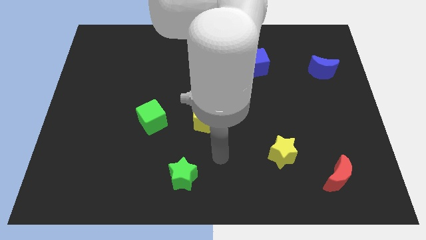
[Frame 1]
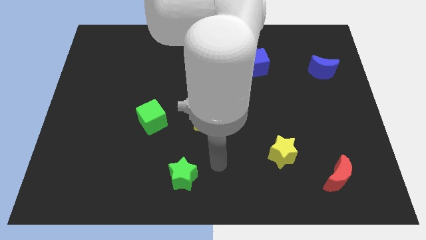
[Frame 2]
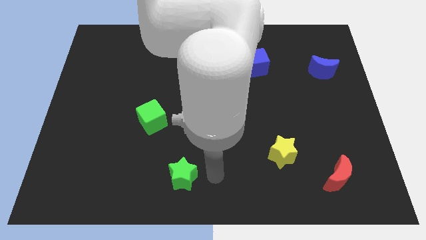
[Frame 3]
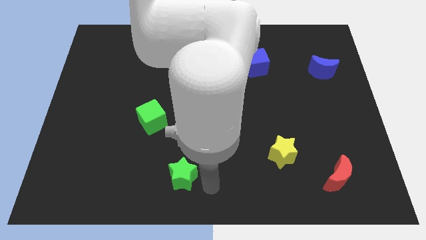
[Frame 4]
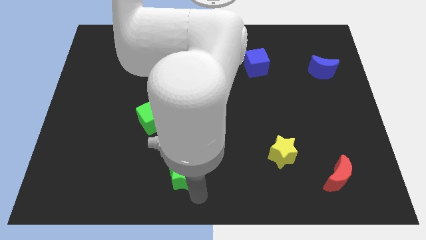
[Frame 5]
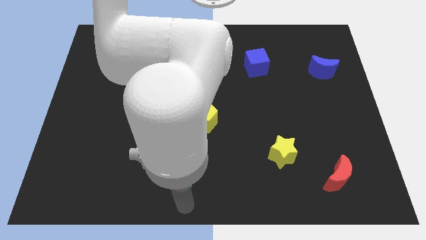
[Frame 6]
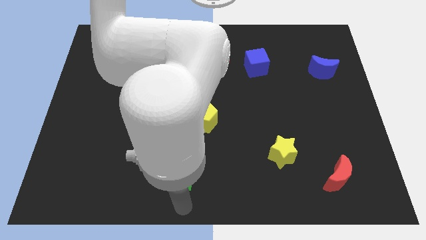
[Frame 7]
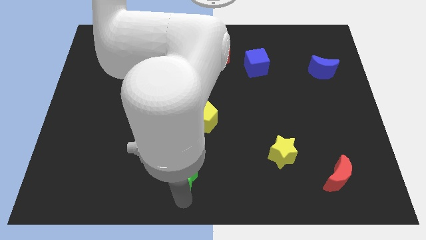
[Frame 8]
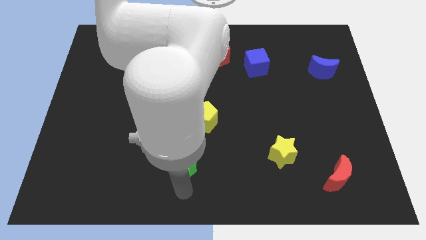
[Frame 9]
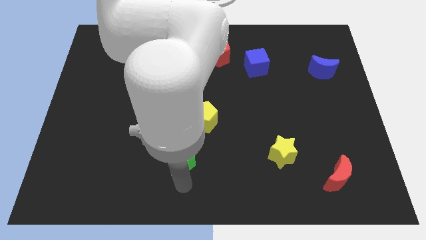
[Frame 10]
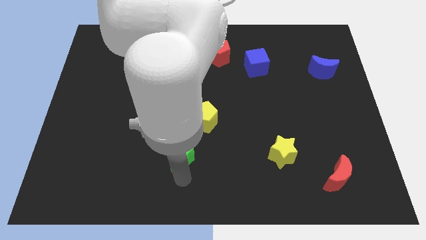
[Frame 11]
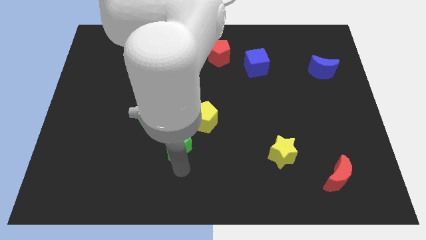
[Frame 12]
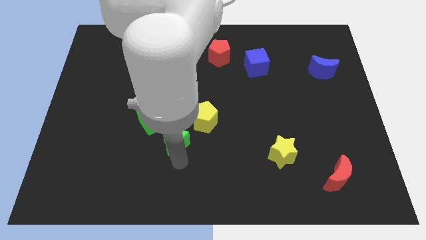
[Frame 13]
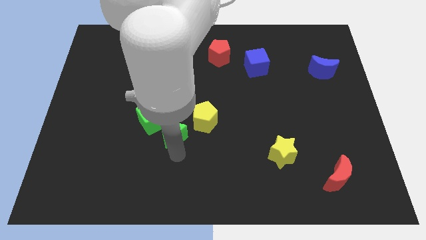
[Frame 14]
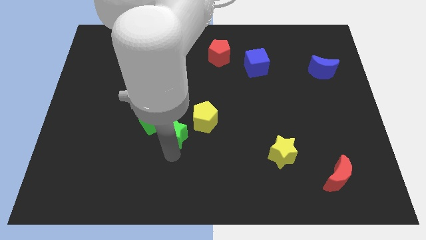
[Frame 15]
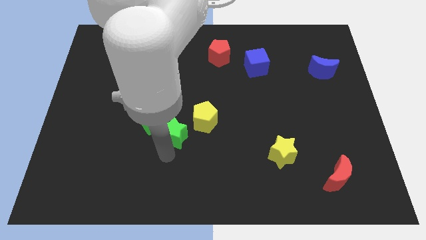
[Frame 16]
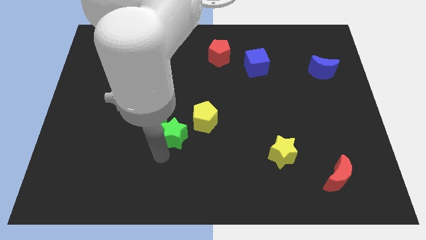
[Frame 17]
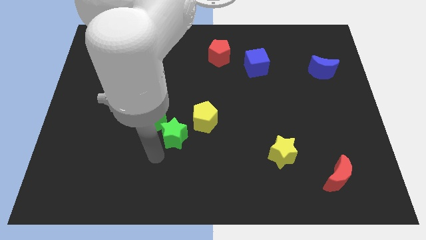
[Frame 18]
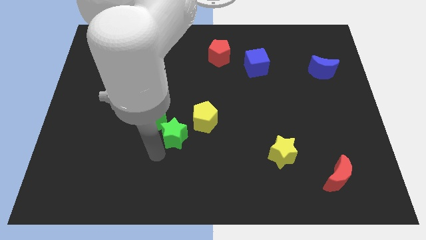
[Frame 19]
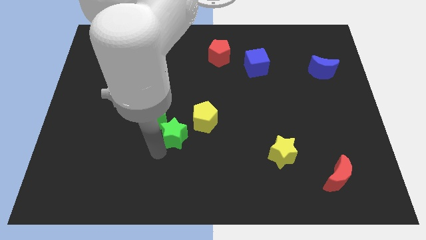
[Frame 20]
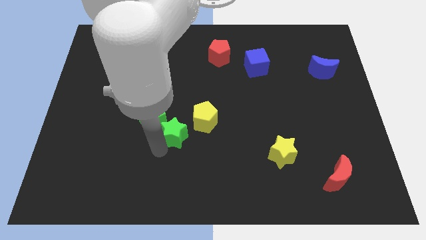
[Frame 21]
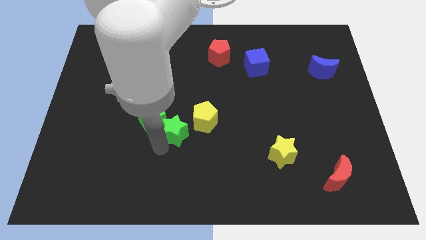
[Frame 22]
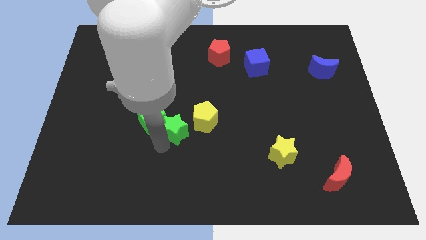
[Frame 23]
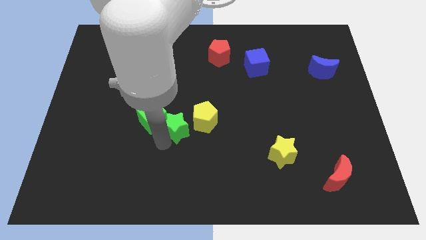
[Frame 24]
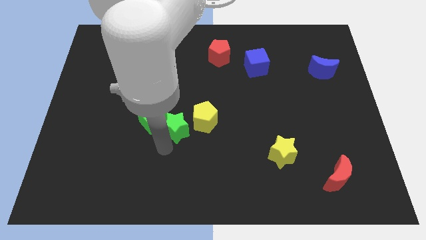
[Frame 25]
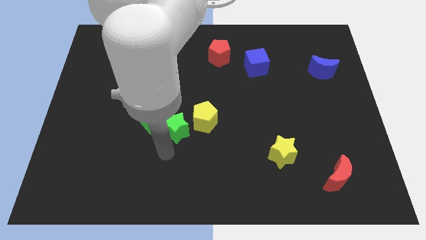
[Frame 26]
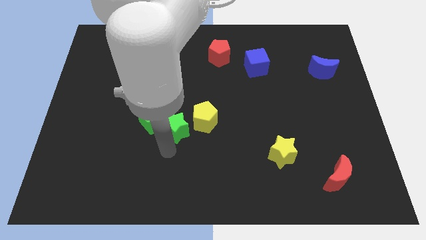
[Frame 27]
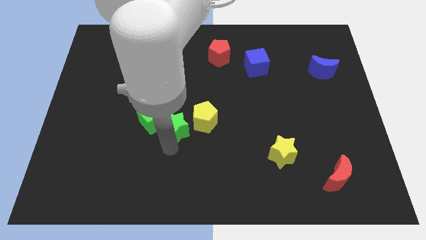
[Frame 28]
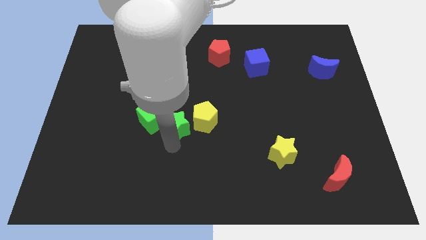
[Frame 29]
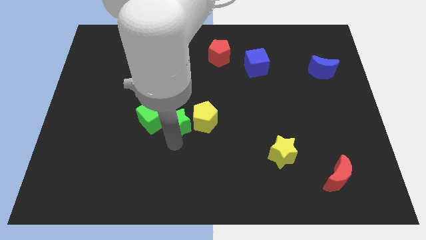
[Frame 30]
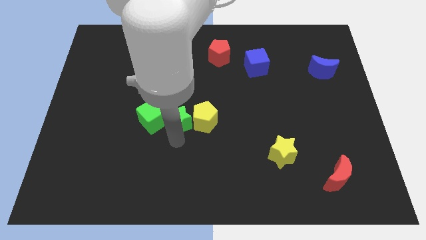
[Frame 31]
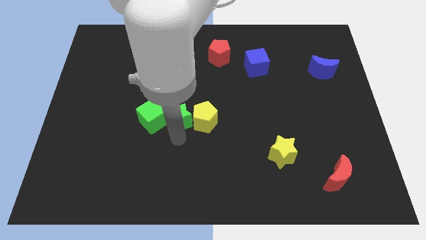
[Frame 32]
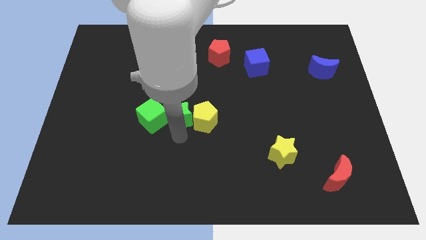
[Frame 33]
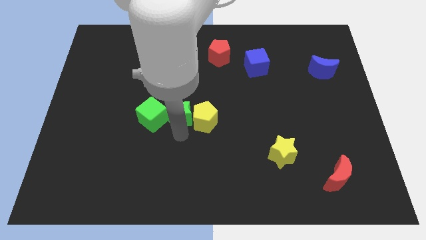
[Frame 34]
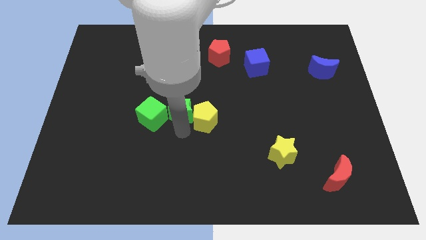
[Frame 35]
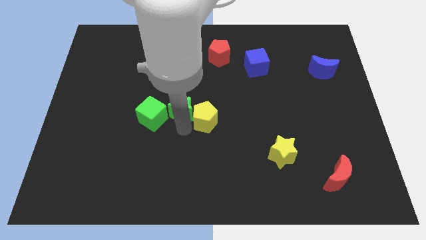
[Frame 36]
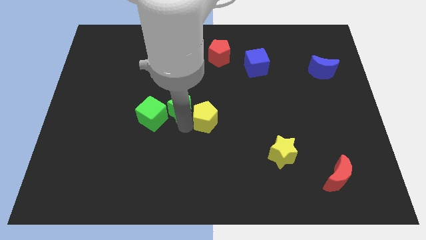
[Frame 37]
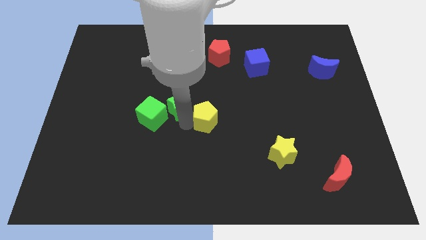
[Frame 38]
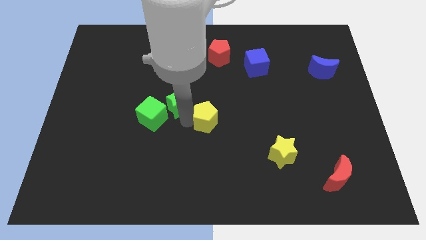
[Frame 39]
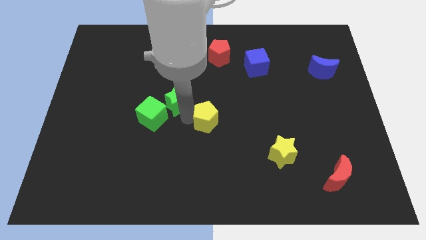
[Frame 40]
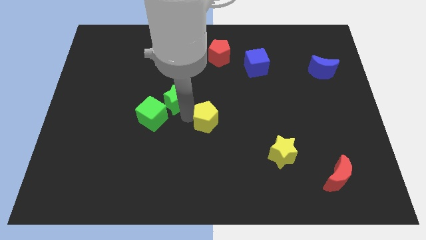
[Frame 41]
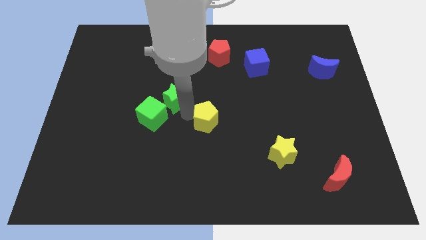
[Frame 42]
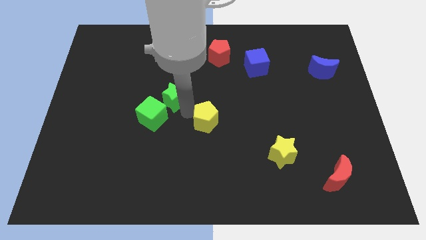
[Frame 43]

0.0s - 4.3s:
slide the green star up

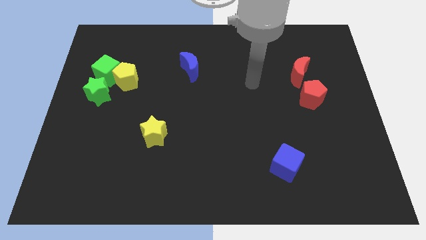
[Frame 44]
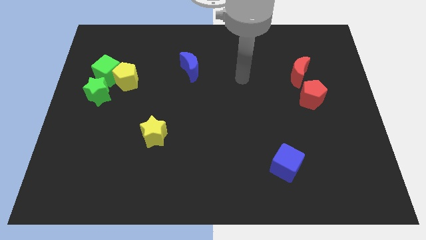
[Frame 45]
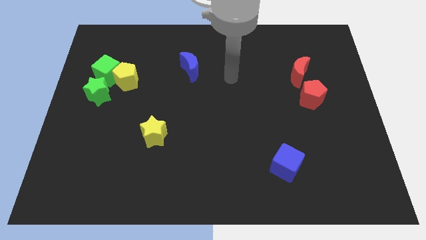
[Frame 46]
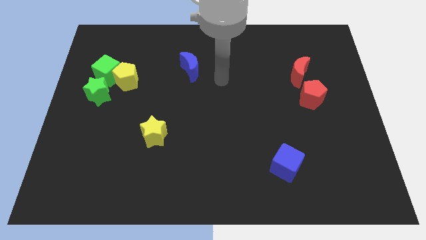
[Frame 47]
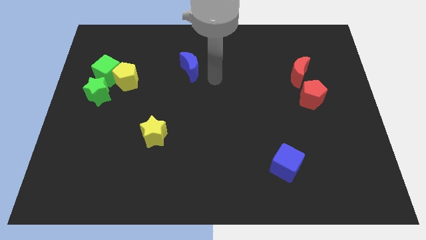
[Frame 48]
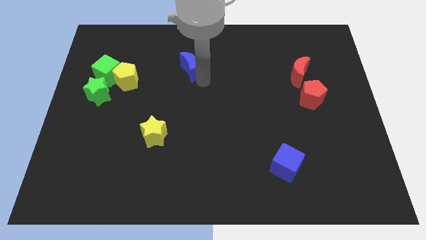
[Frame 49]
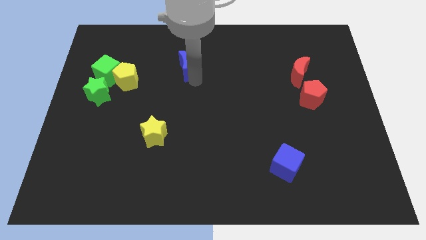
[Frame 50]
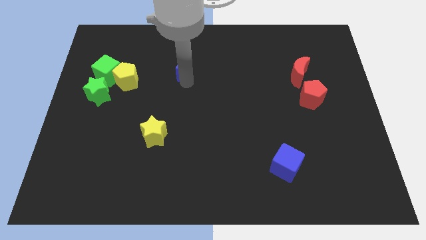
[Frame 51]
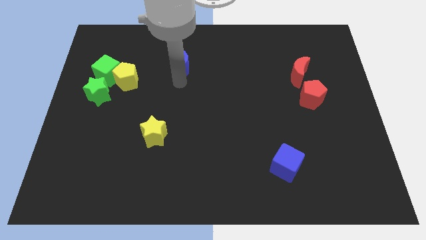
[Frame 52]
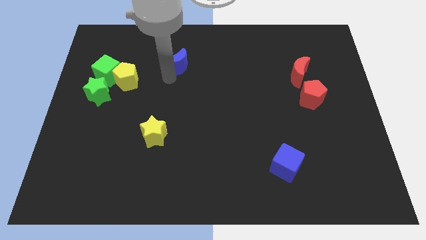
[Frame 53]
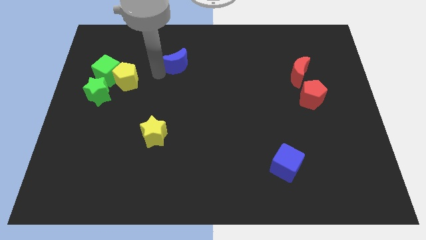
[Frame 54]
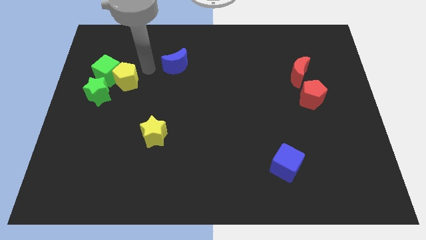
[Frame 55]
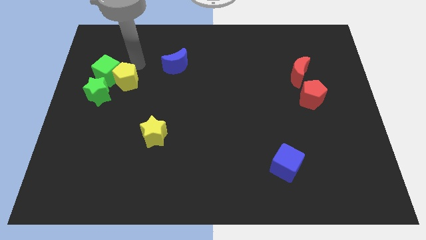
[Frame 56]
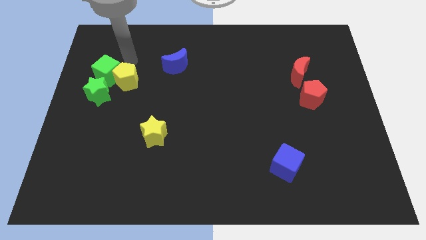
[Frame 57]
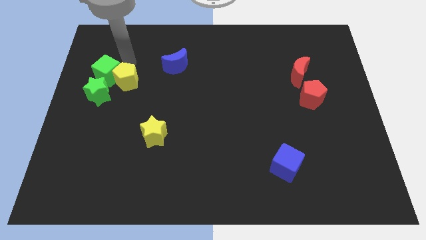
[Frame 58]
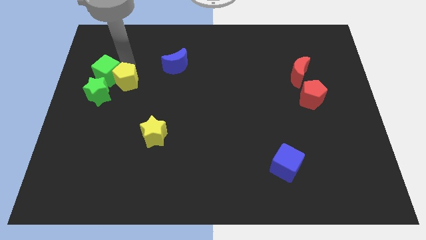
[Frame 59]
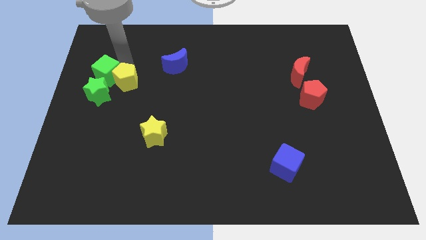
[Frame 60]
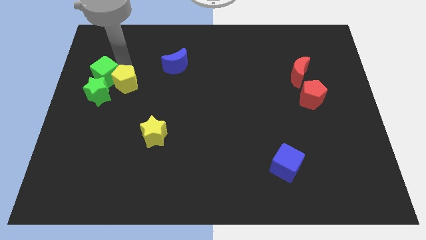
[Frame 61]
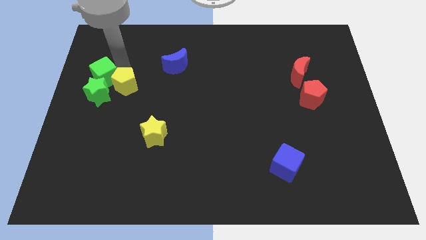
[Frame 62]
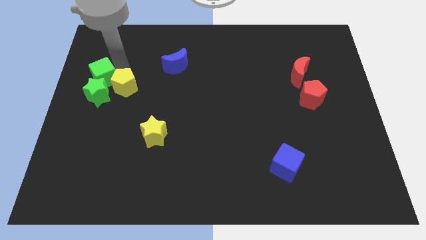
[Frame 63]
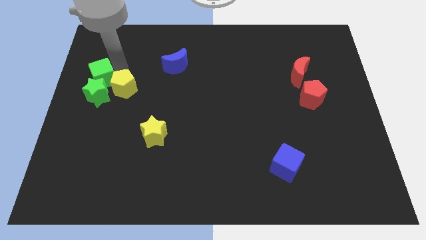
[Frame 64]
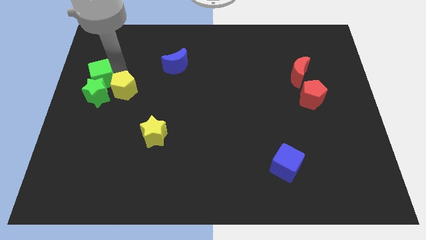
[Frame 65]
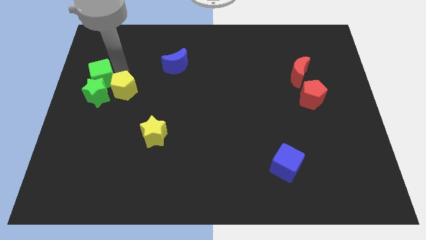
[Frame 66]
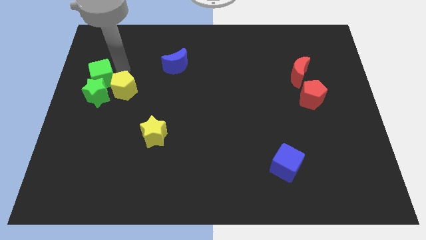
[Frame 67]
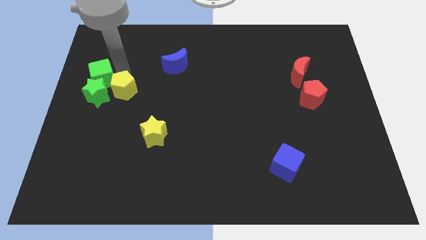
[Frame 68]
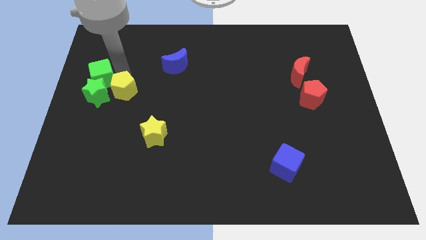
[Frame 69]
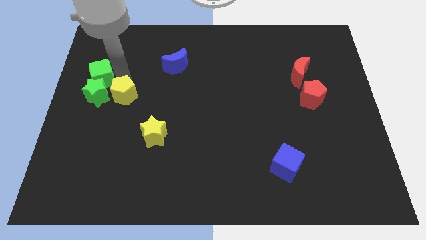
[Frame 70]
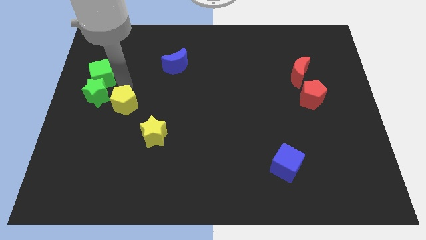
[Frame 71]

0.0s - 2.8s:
slide the yellow pentagon a bit downwards

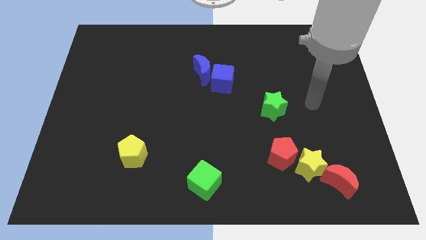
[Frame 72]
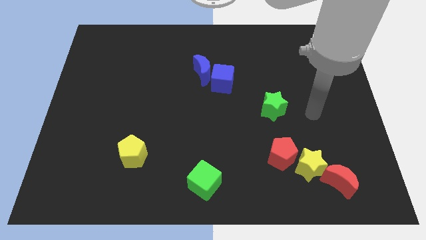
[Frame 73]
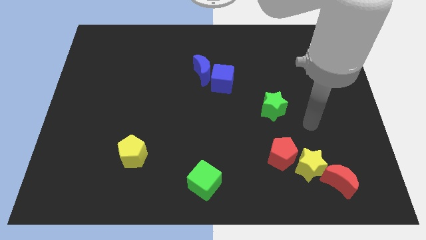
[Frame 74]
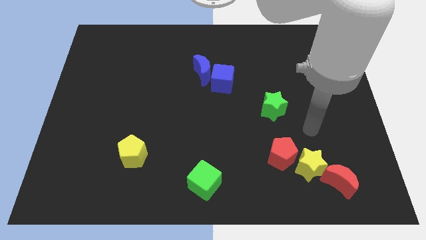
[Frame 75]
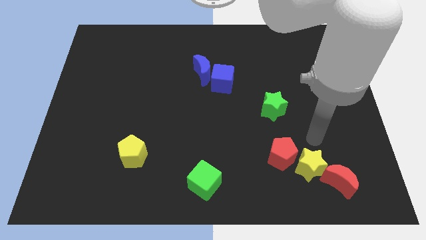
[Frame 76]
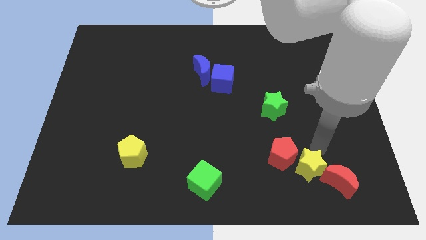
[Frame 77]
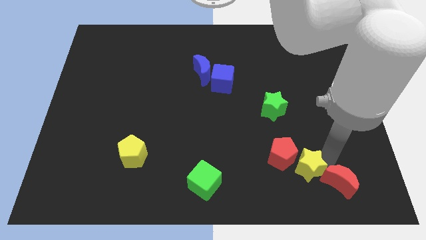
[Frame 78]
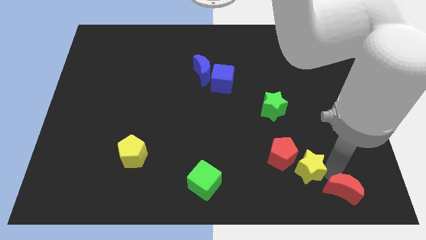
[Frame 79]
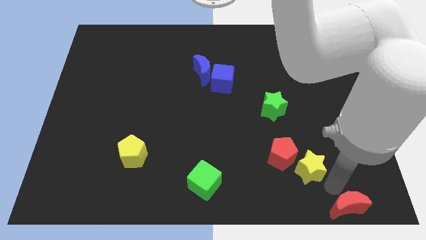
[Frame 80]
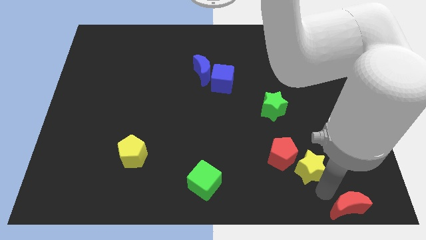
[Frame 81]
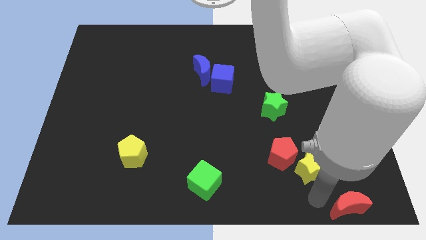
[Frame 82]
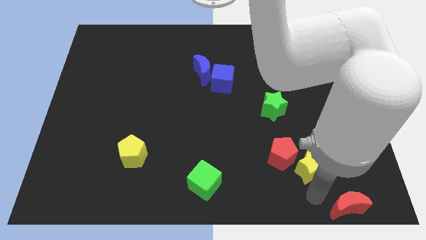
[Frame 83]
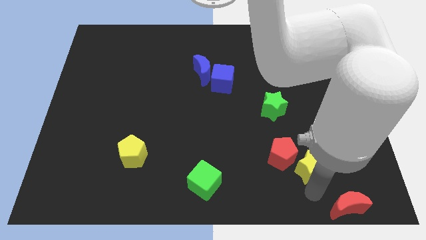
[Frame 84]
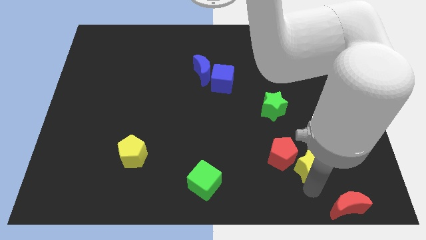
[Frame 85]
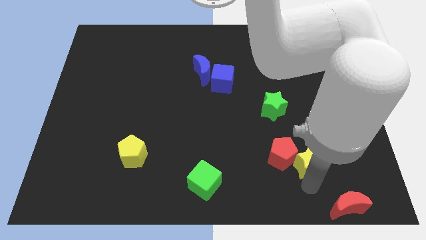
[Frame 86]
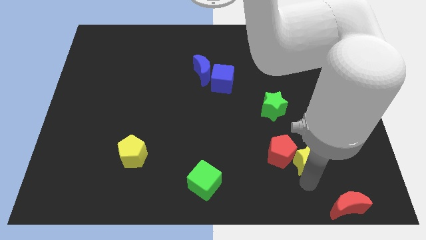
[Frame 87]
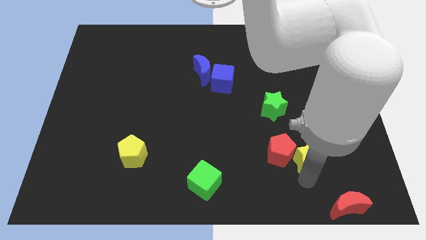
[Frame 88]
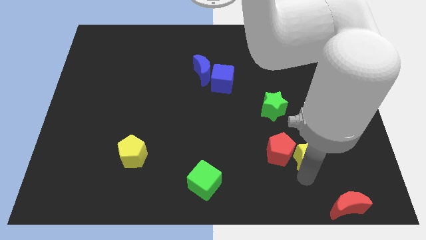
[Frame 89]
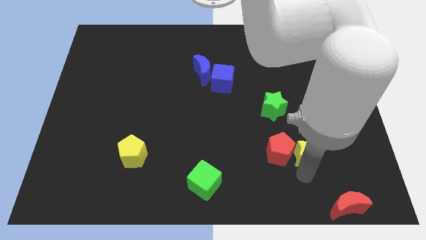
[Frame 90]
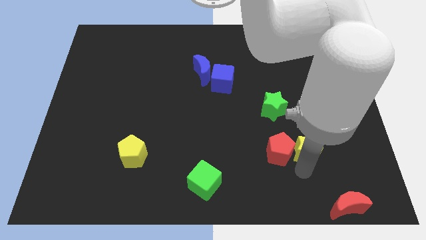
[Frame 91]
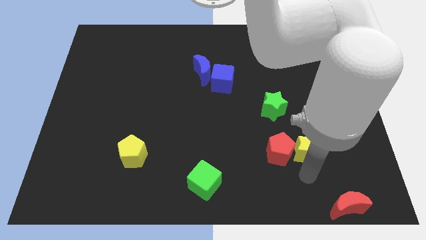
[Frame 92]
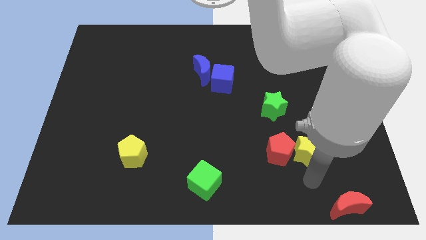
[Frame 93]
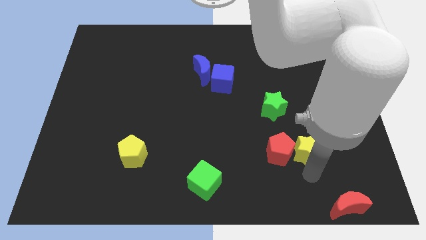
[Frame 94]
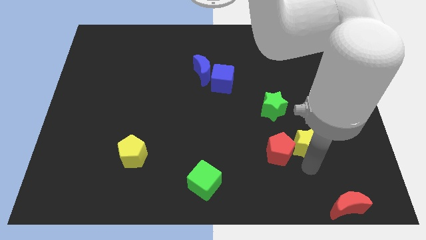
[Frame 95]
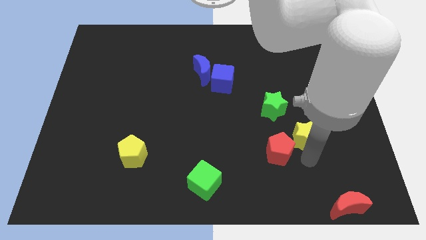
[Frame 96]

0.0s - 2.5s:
slightly move the yellow star up
